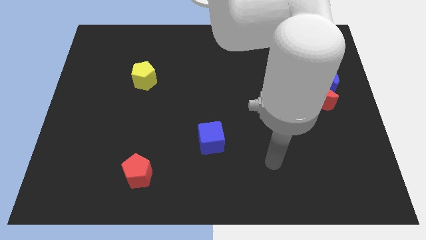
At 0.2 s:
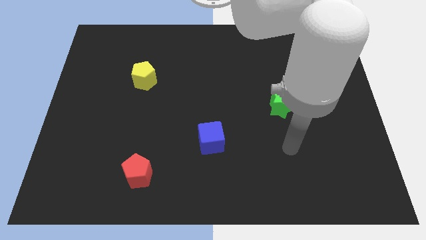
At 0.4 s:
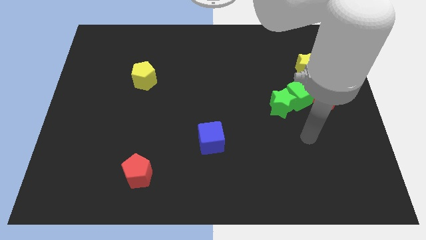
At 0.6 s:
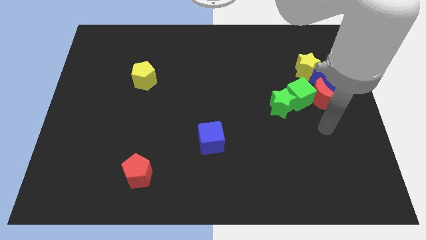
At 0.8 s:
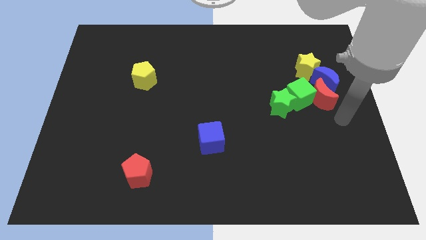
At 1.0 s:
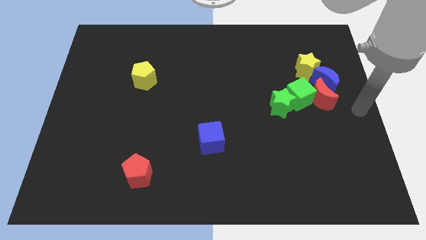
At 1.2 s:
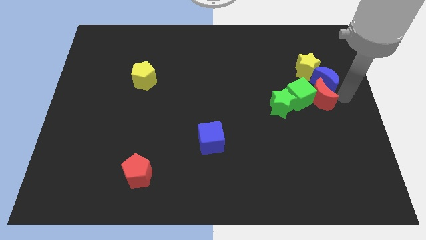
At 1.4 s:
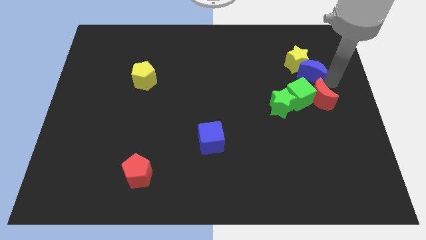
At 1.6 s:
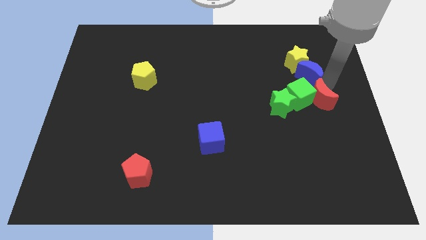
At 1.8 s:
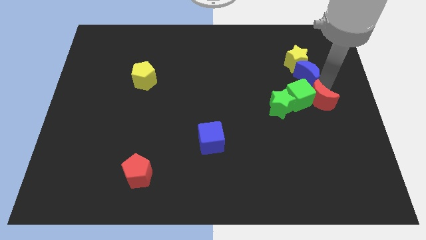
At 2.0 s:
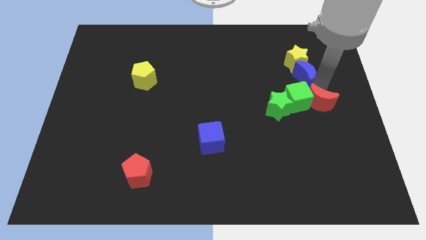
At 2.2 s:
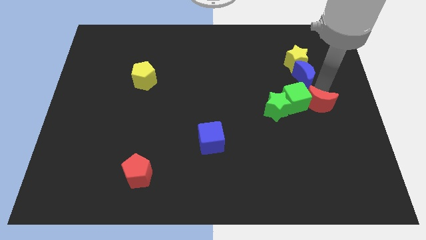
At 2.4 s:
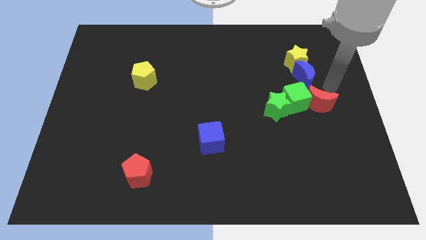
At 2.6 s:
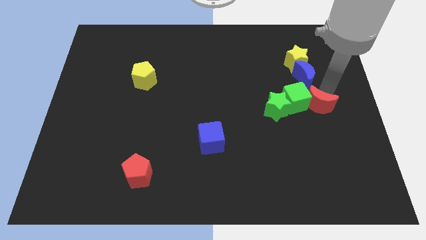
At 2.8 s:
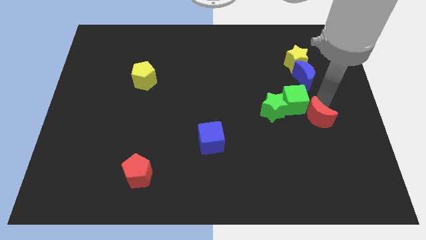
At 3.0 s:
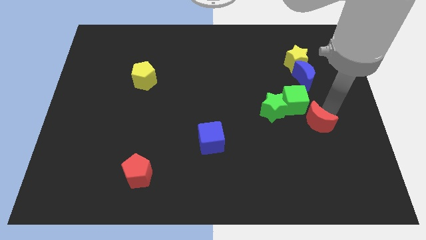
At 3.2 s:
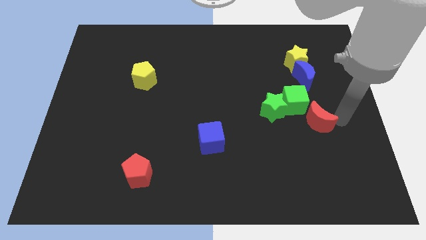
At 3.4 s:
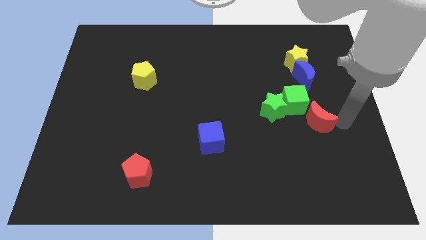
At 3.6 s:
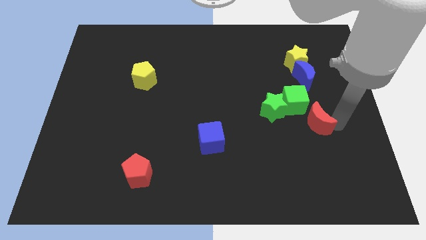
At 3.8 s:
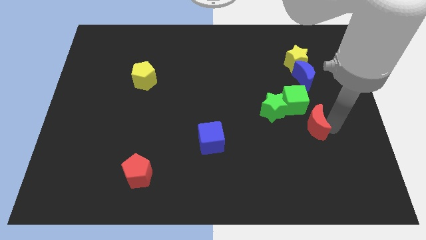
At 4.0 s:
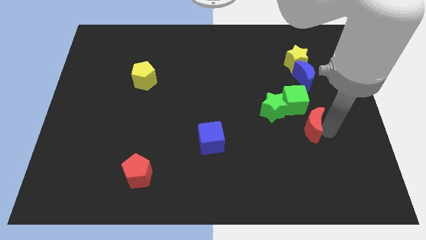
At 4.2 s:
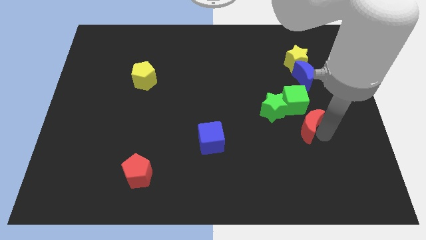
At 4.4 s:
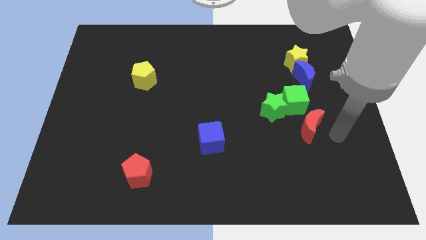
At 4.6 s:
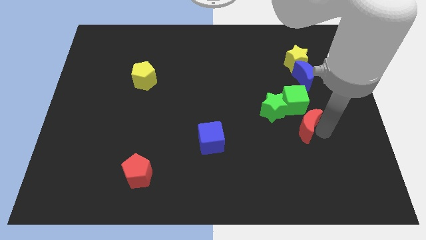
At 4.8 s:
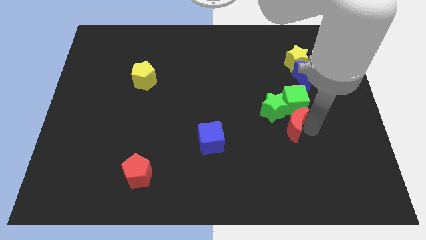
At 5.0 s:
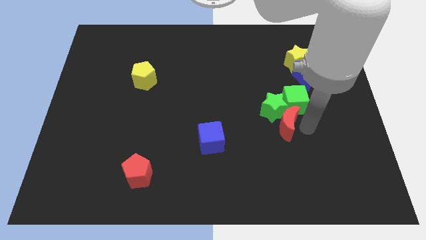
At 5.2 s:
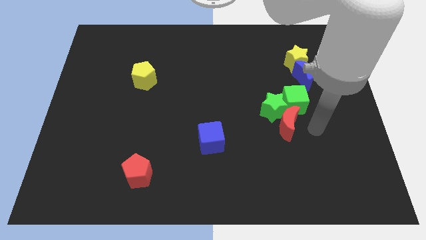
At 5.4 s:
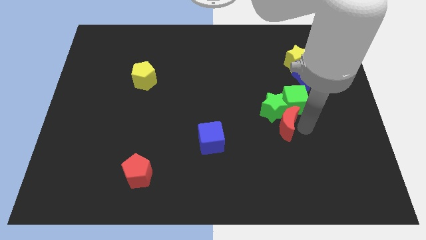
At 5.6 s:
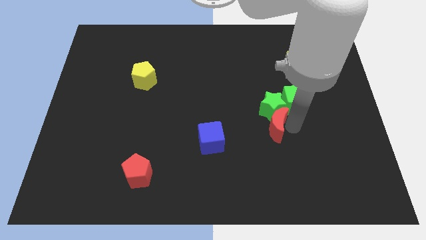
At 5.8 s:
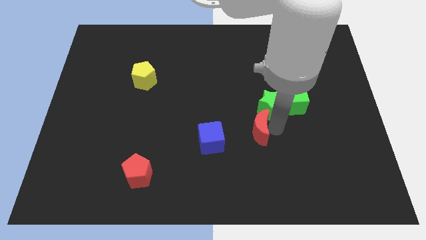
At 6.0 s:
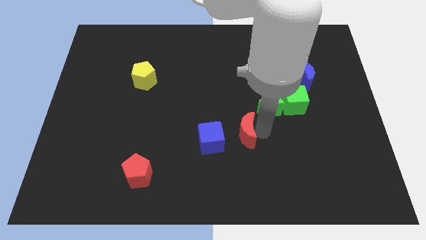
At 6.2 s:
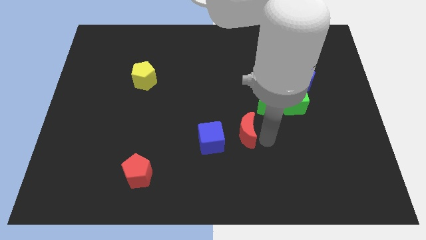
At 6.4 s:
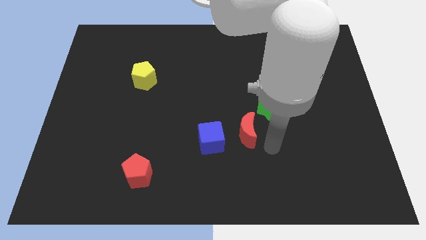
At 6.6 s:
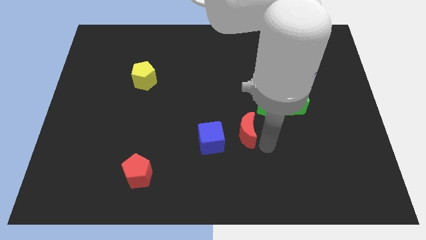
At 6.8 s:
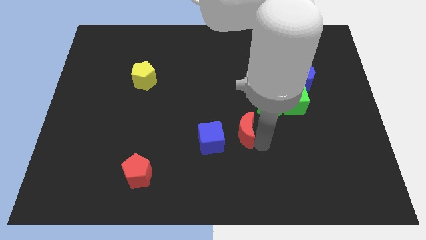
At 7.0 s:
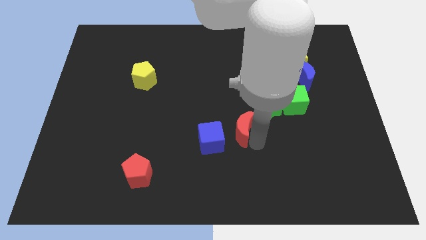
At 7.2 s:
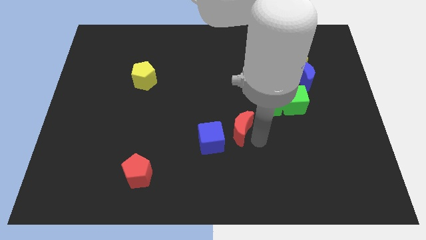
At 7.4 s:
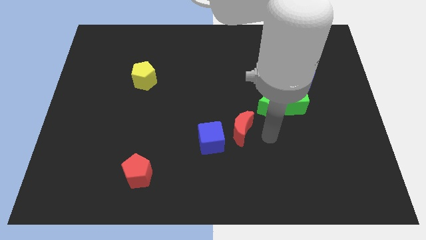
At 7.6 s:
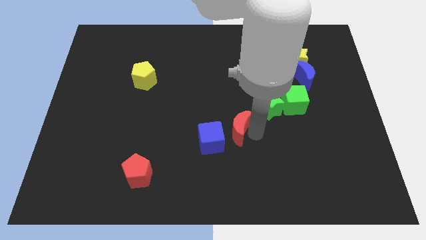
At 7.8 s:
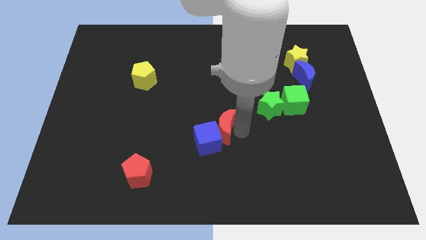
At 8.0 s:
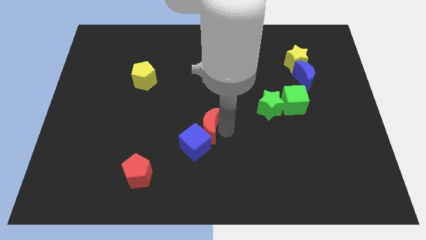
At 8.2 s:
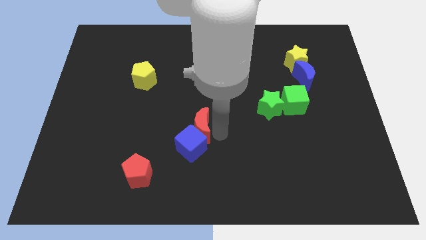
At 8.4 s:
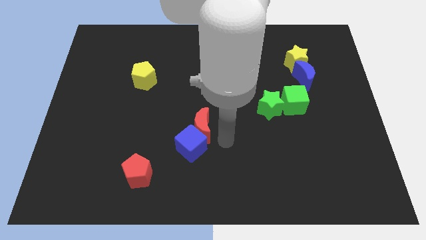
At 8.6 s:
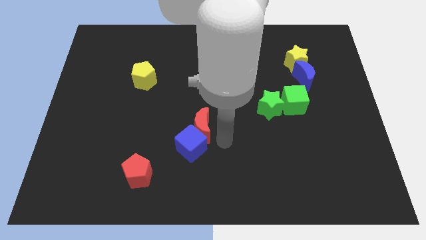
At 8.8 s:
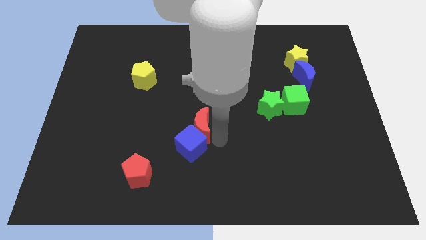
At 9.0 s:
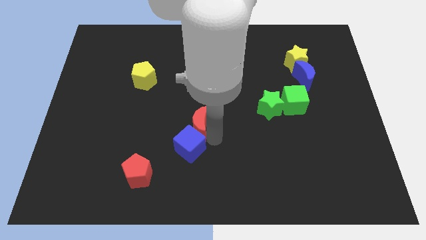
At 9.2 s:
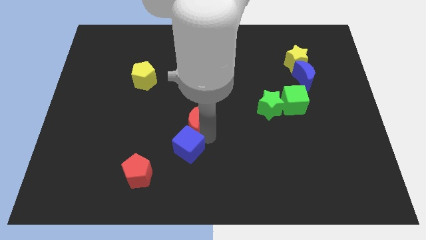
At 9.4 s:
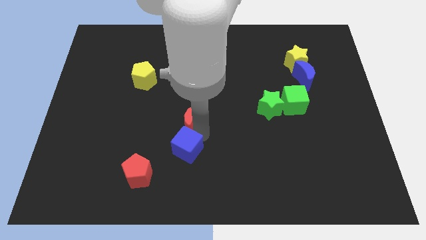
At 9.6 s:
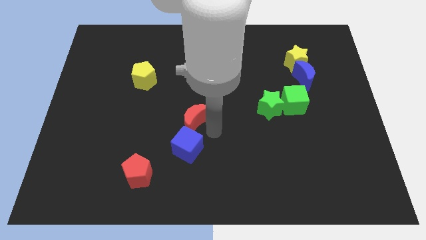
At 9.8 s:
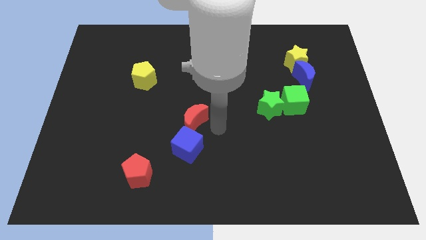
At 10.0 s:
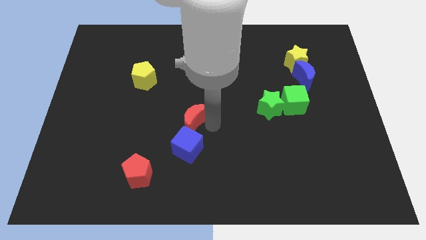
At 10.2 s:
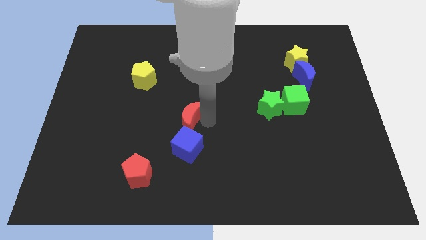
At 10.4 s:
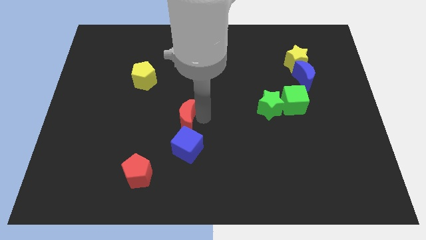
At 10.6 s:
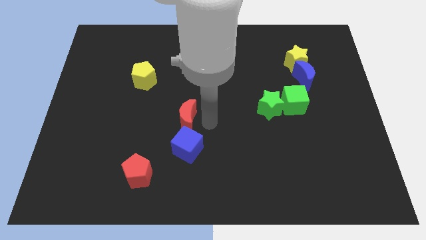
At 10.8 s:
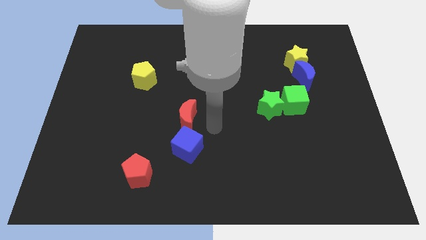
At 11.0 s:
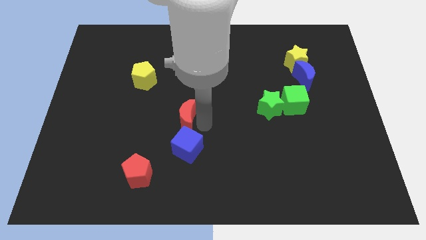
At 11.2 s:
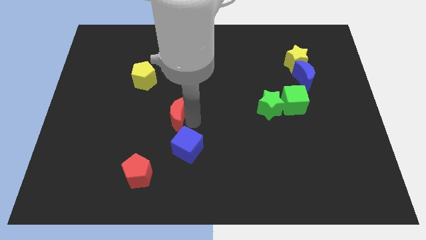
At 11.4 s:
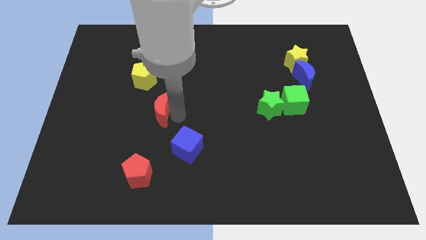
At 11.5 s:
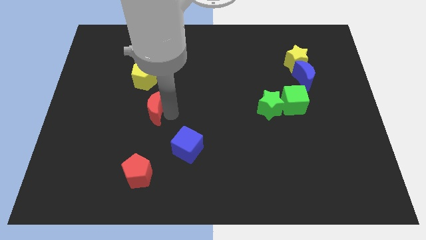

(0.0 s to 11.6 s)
move the red moon to the bottom of the yellow pentagon

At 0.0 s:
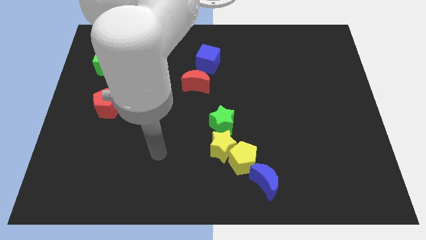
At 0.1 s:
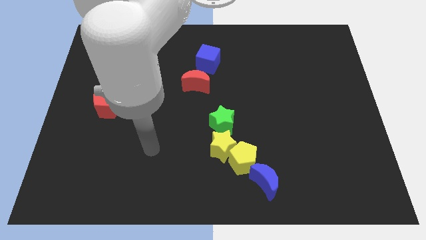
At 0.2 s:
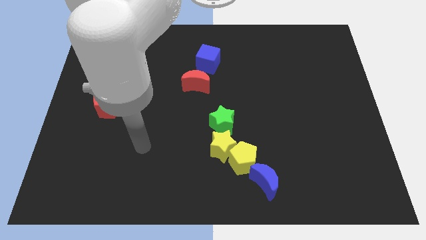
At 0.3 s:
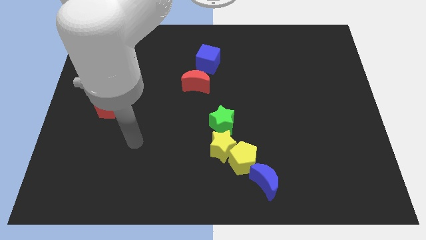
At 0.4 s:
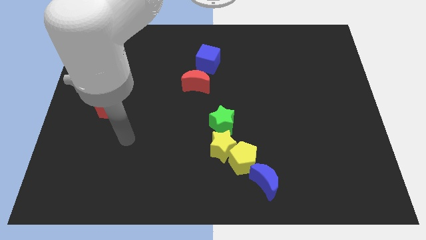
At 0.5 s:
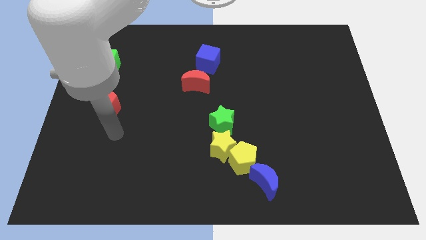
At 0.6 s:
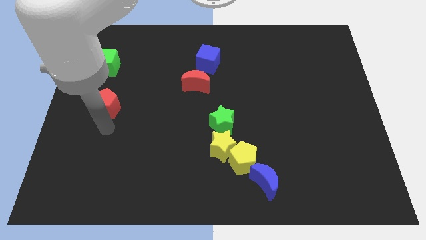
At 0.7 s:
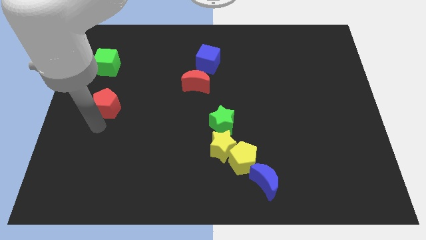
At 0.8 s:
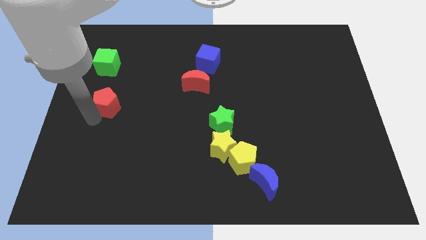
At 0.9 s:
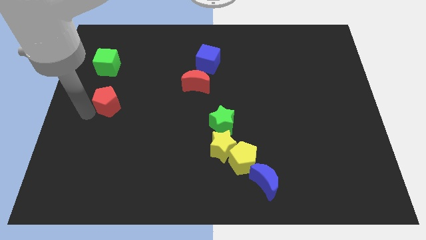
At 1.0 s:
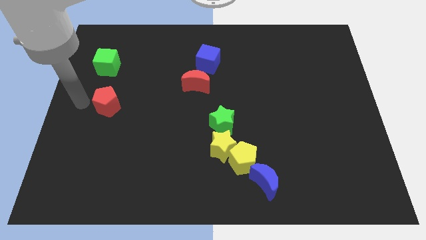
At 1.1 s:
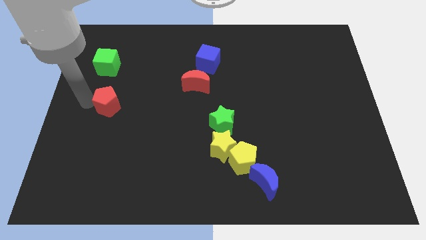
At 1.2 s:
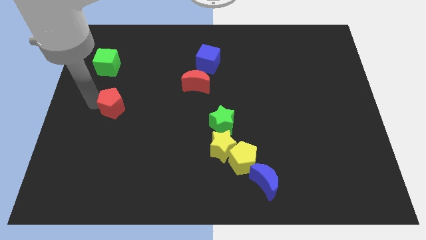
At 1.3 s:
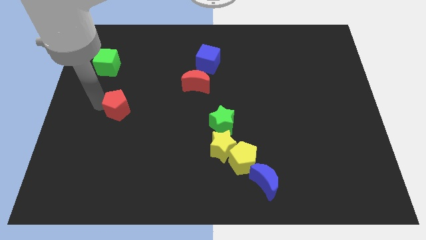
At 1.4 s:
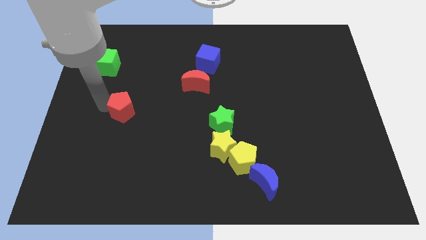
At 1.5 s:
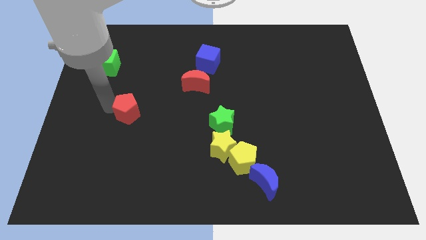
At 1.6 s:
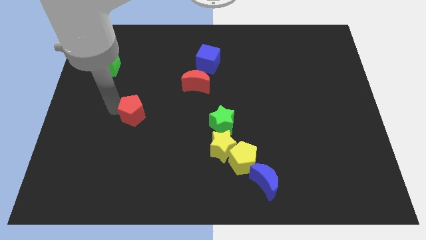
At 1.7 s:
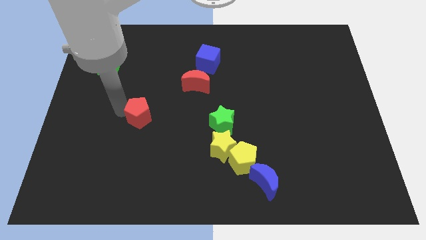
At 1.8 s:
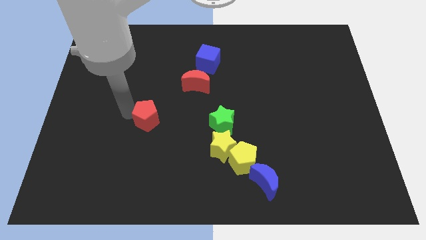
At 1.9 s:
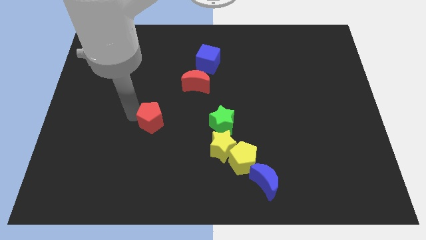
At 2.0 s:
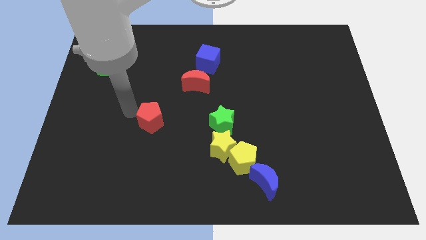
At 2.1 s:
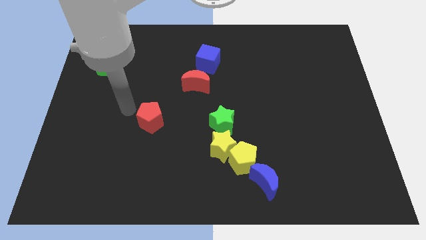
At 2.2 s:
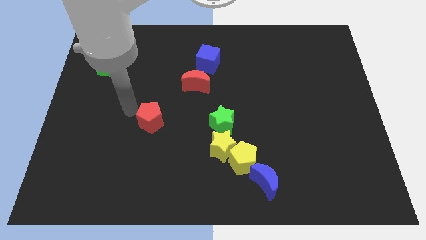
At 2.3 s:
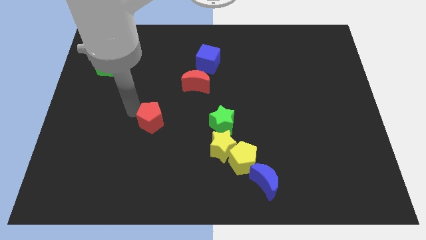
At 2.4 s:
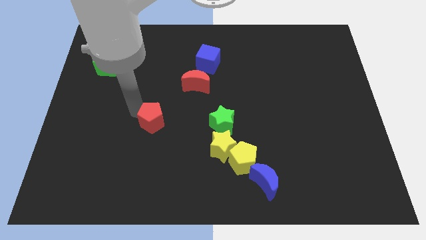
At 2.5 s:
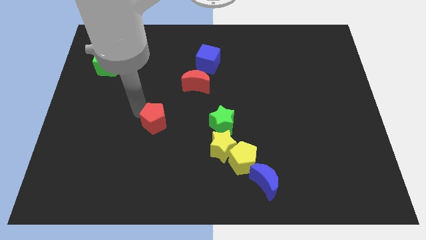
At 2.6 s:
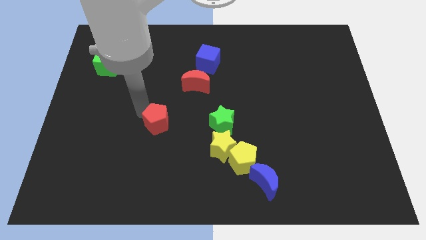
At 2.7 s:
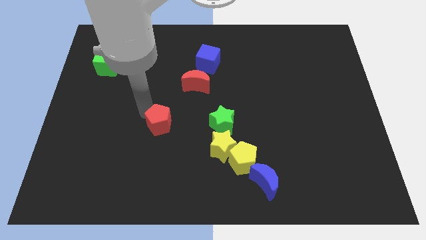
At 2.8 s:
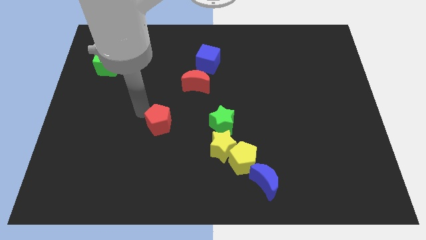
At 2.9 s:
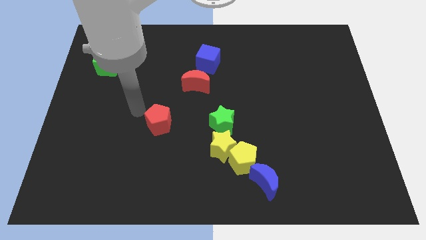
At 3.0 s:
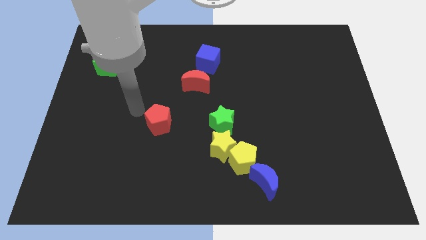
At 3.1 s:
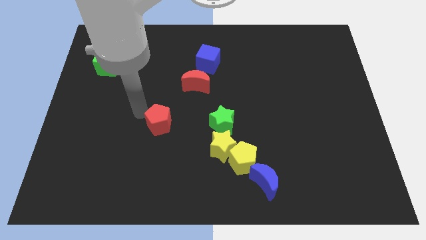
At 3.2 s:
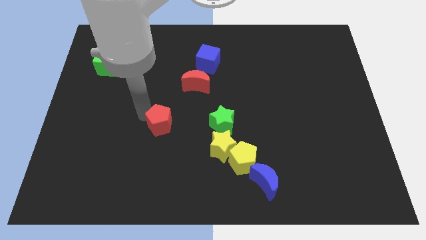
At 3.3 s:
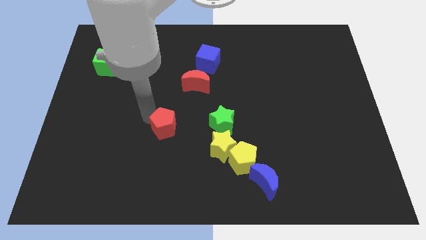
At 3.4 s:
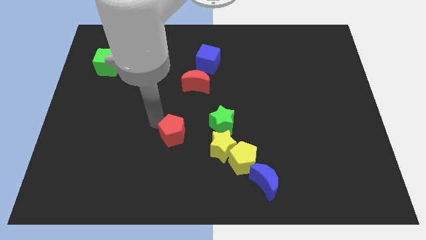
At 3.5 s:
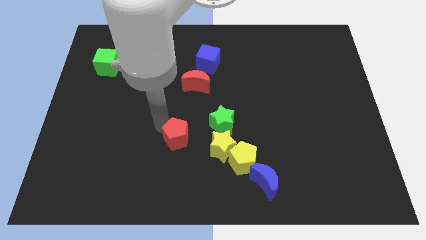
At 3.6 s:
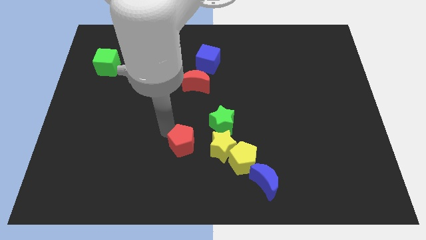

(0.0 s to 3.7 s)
slide the red pentagon to the bottom left of the green star
